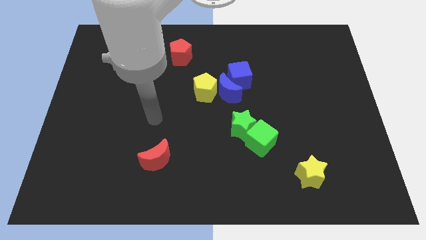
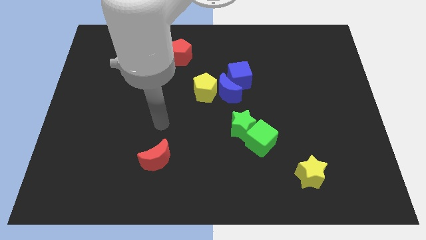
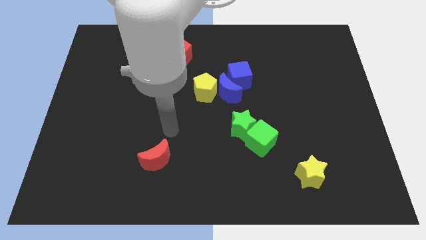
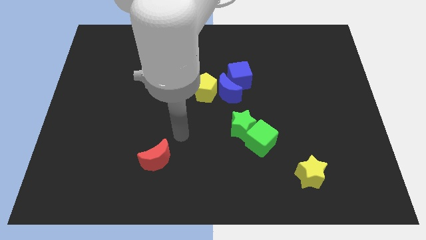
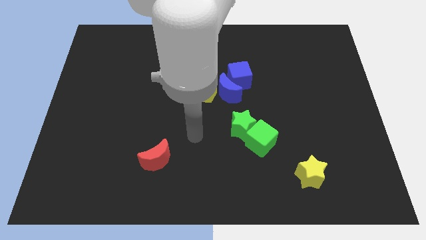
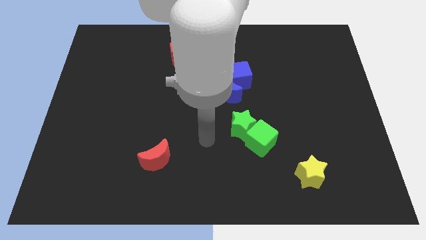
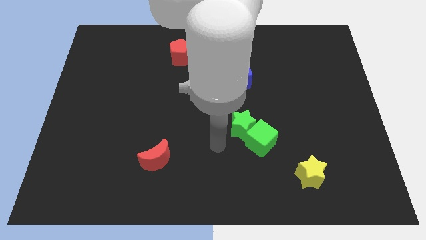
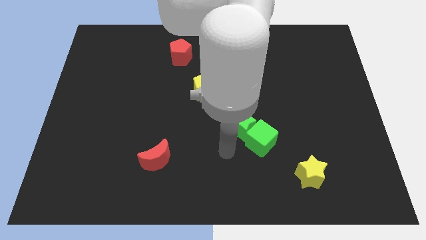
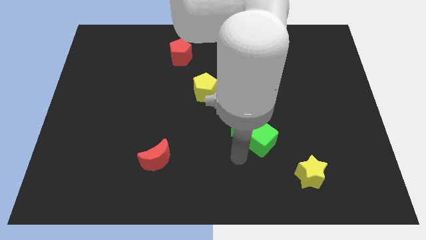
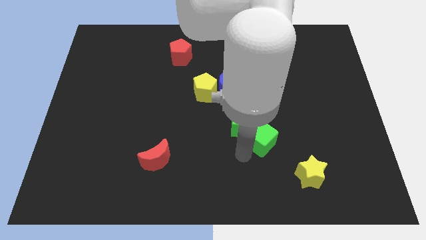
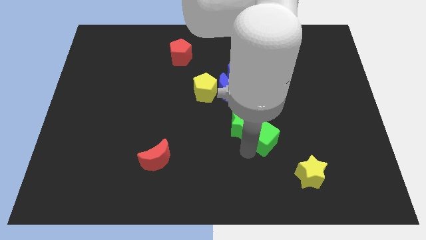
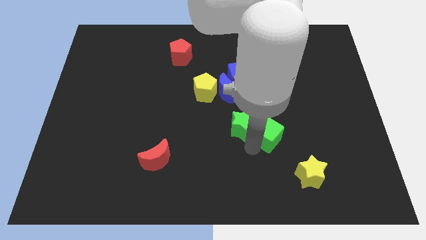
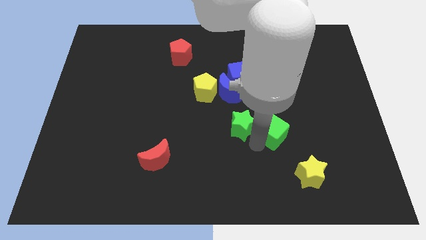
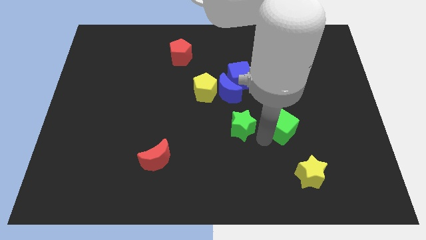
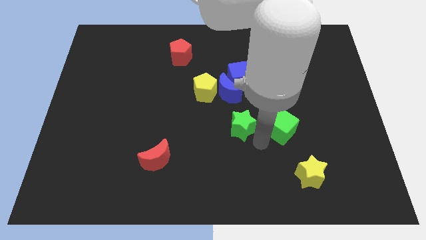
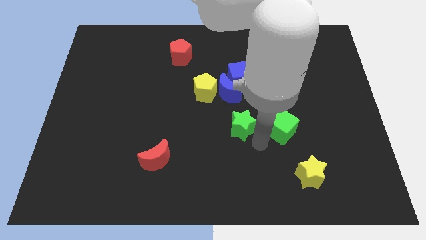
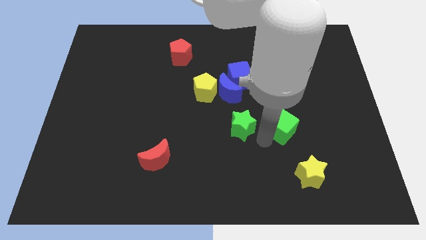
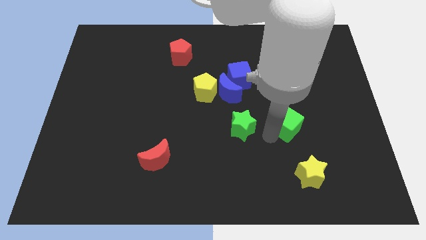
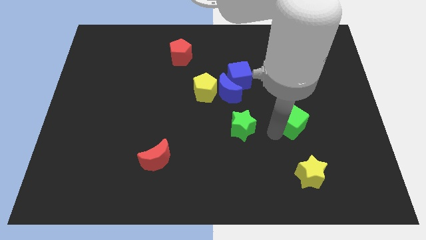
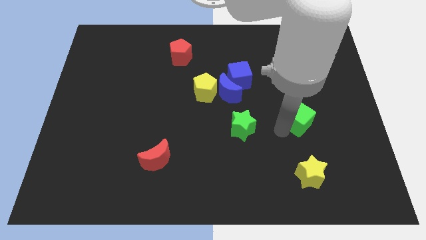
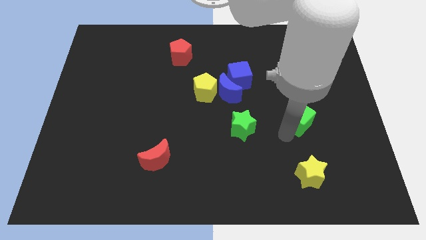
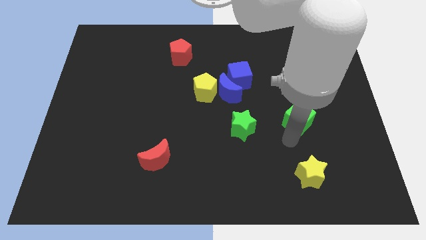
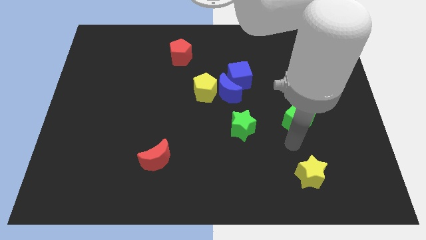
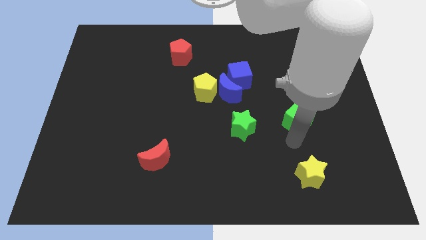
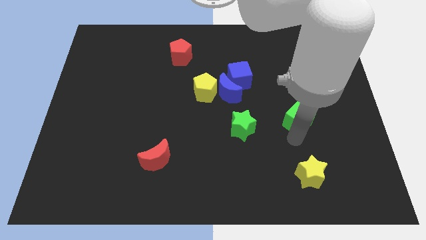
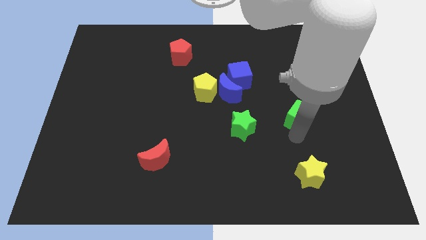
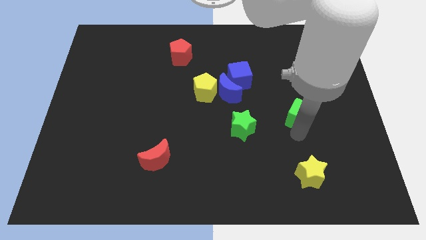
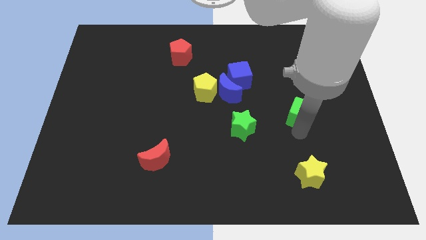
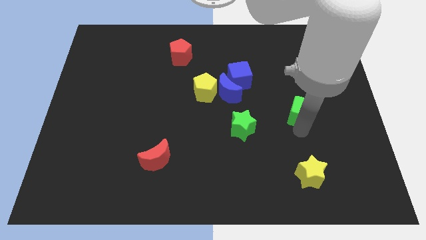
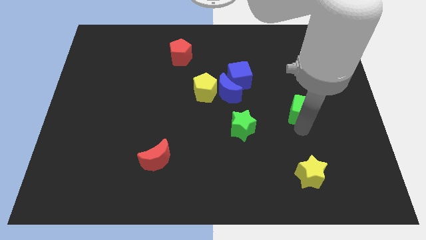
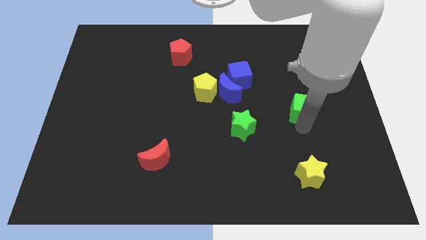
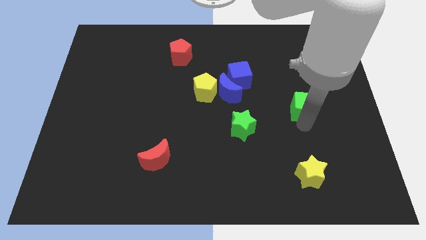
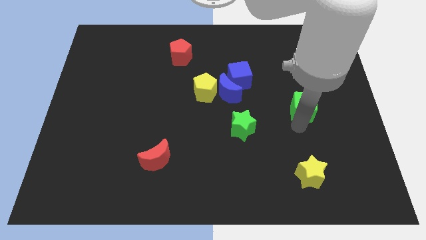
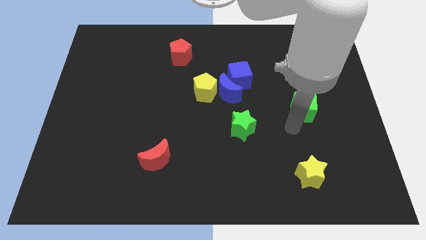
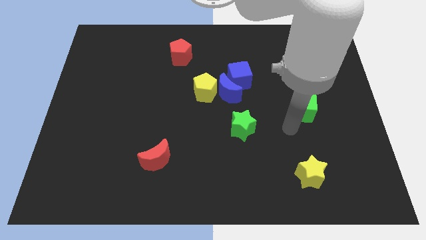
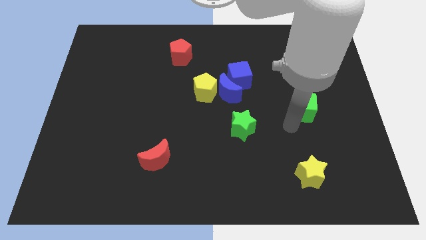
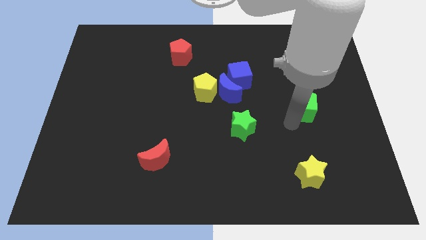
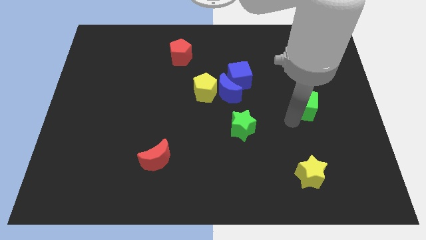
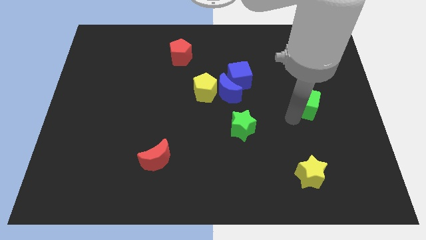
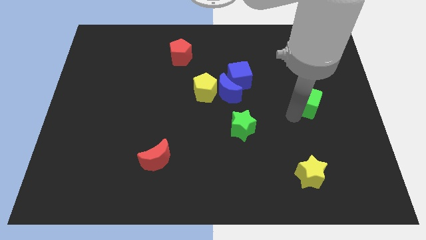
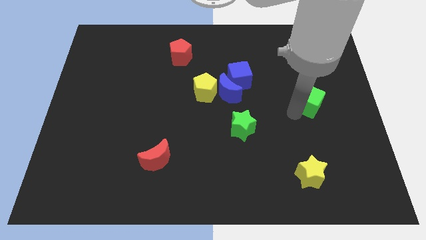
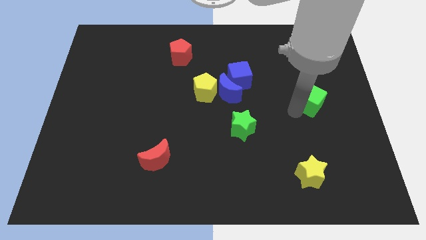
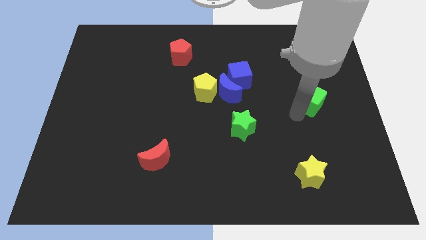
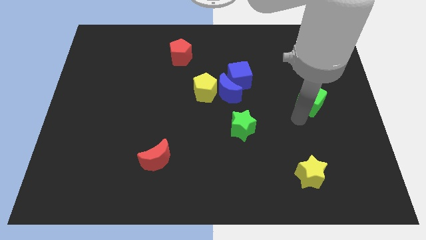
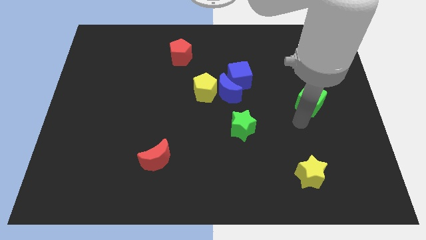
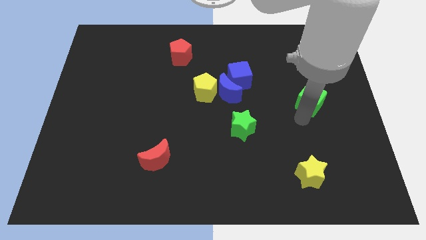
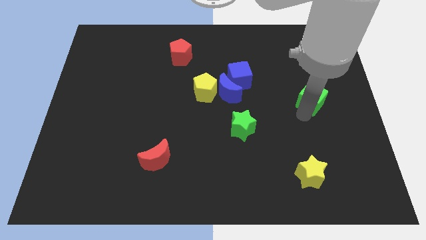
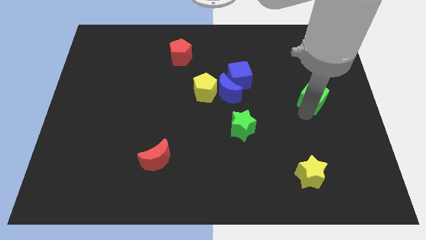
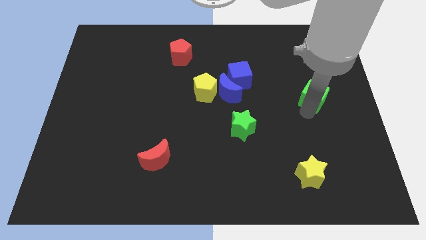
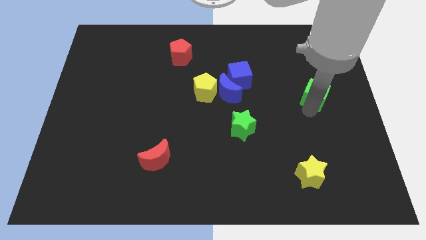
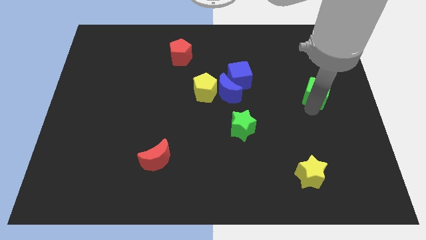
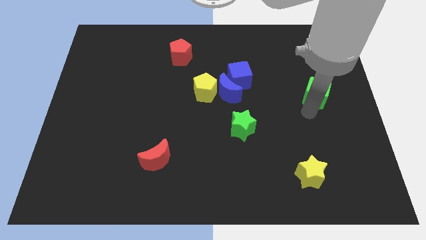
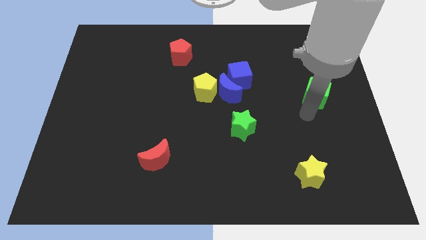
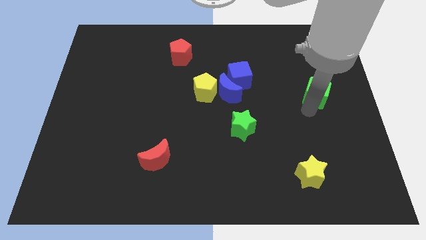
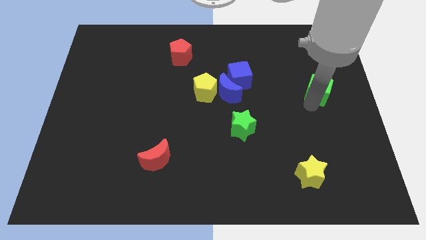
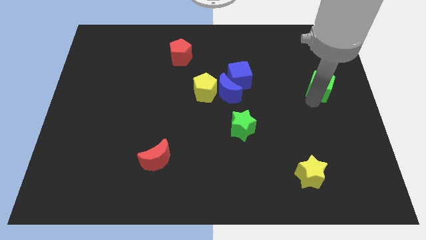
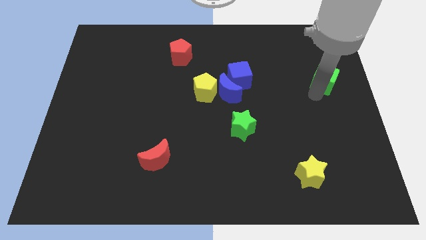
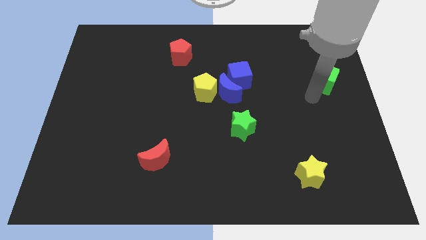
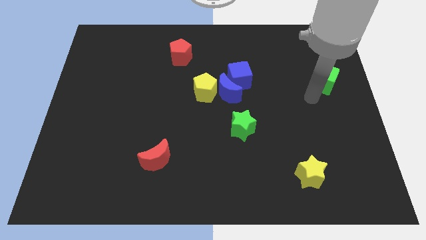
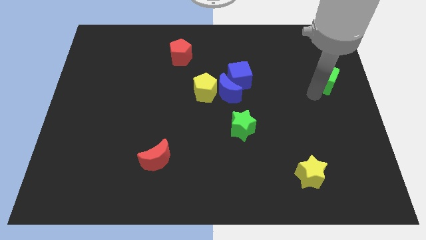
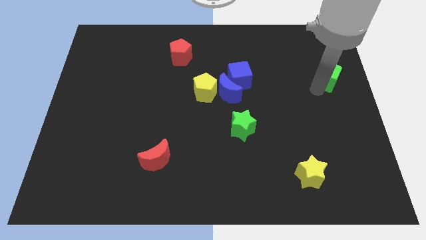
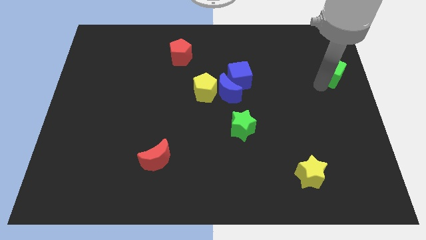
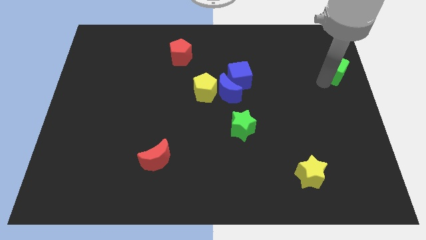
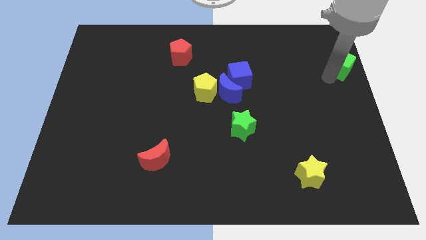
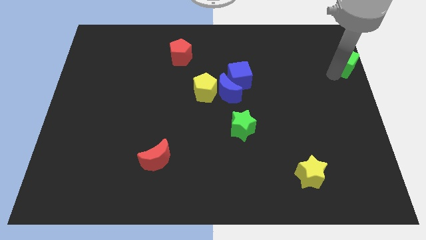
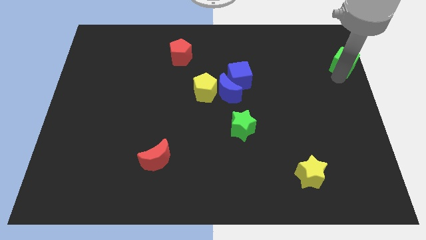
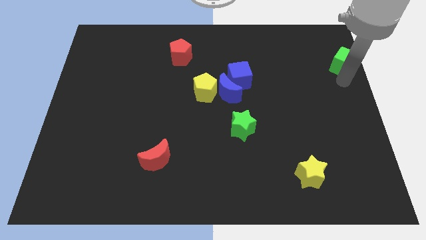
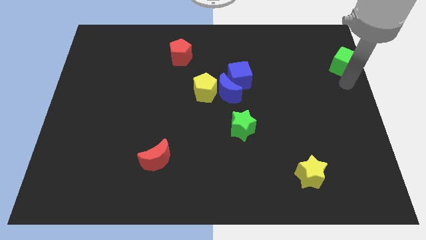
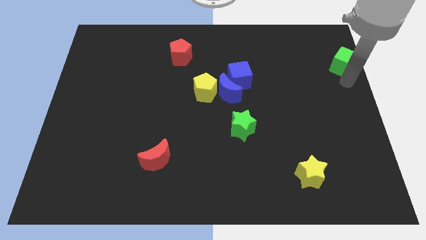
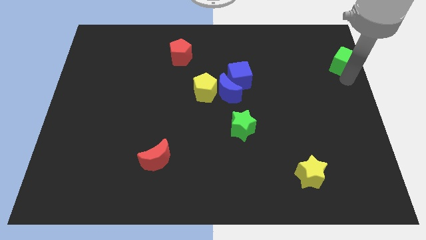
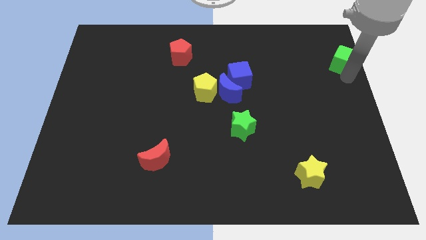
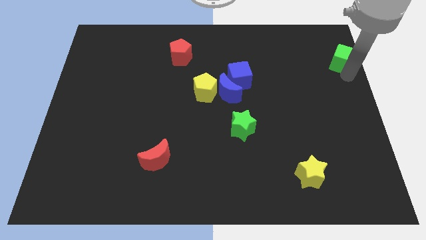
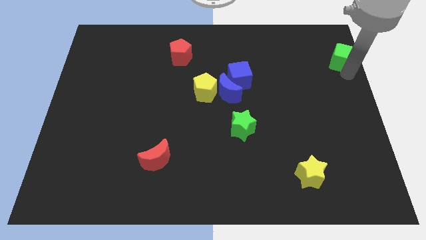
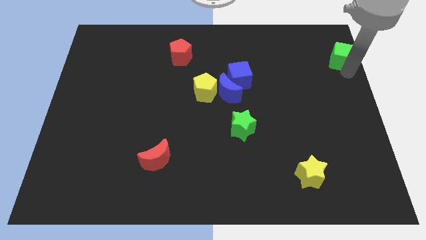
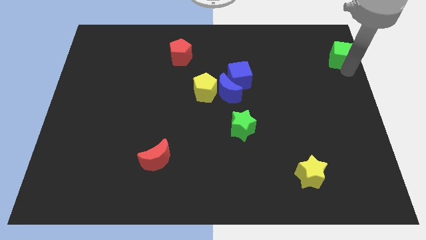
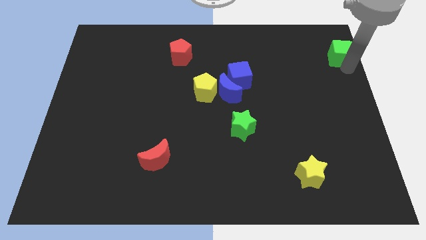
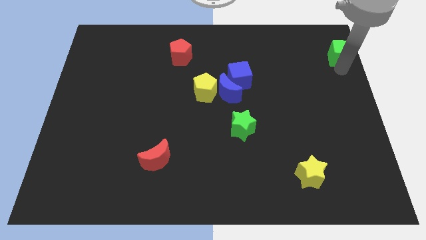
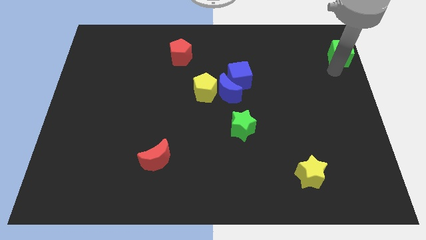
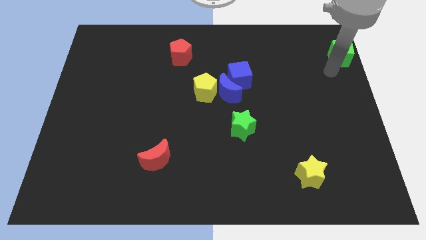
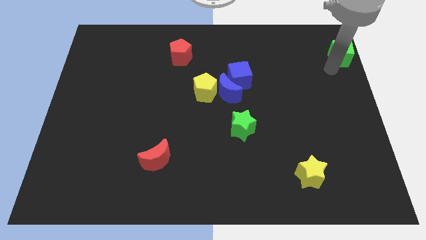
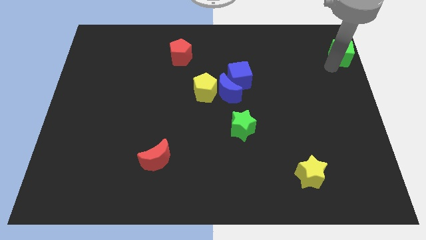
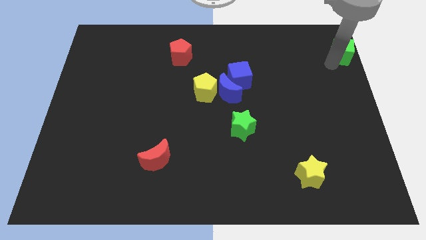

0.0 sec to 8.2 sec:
move the green cube to the top right corner
